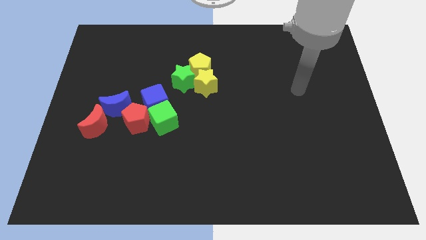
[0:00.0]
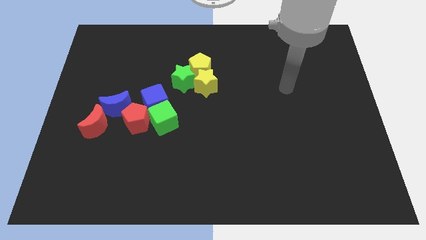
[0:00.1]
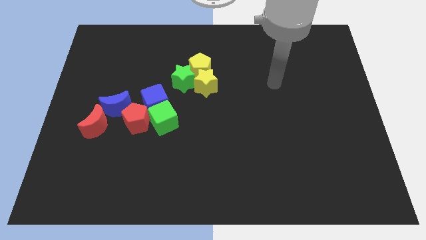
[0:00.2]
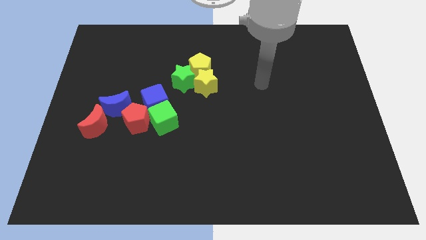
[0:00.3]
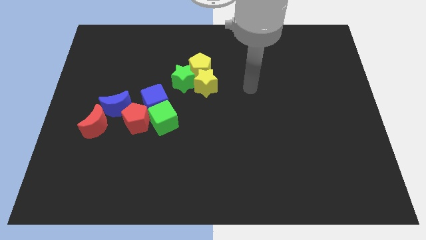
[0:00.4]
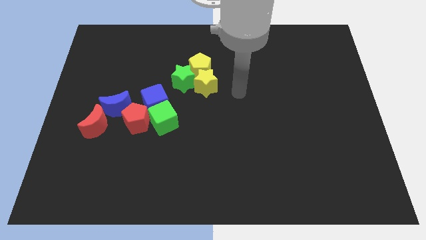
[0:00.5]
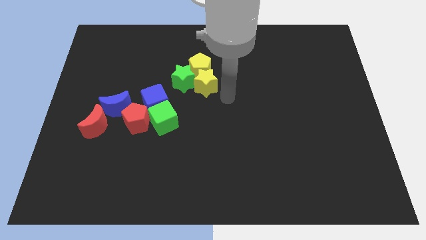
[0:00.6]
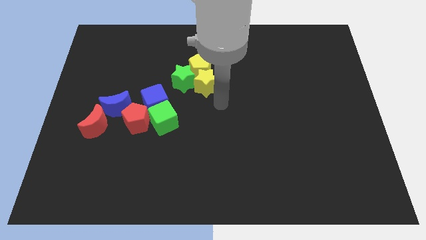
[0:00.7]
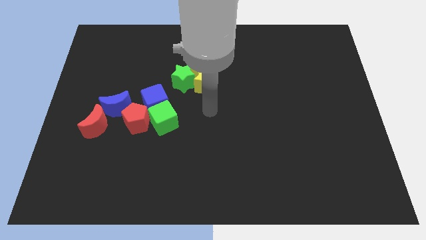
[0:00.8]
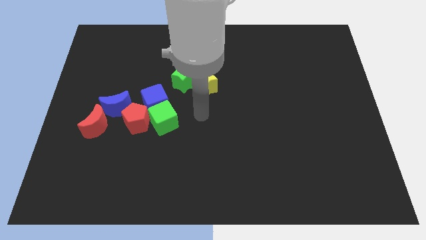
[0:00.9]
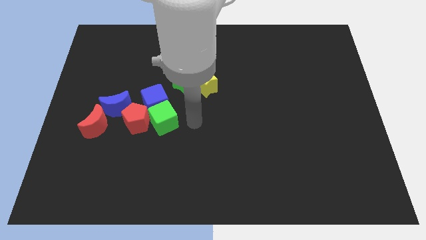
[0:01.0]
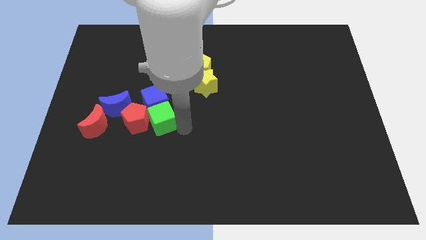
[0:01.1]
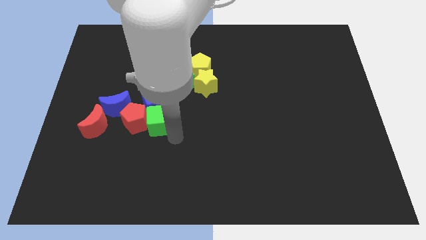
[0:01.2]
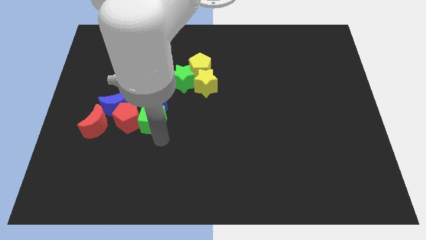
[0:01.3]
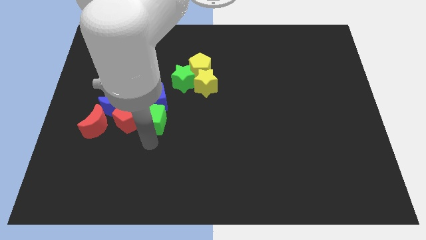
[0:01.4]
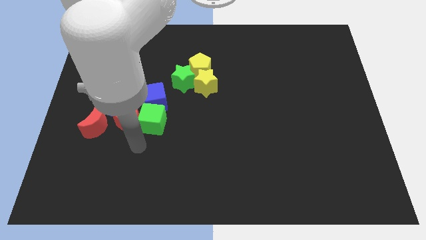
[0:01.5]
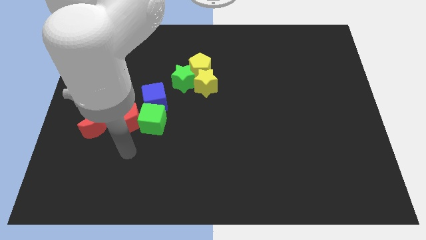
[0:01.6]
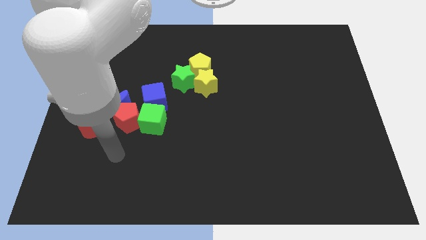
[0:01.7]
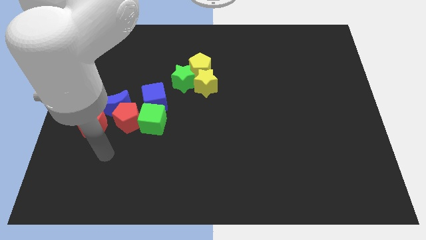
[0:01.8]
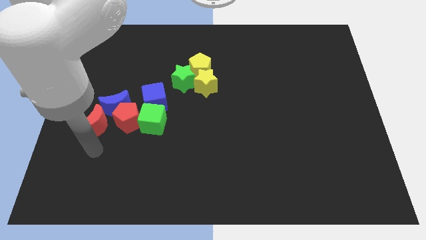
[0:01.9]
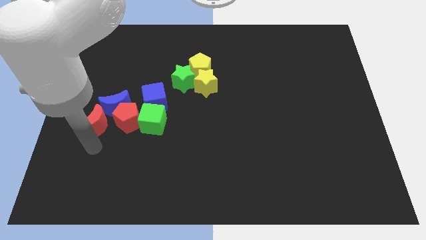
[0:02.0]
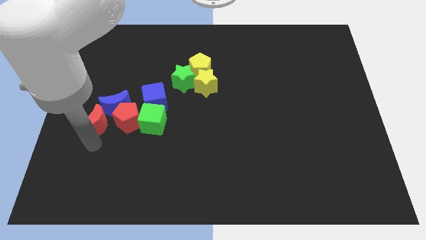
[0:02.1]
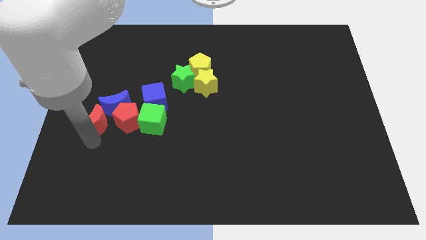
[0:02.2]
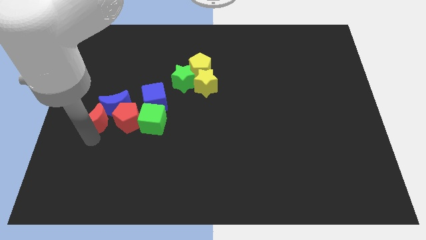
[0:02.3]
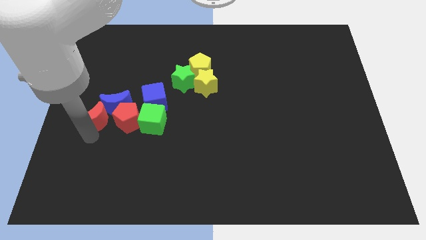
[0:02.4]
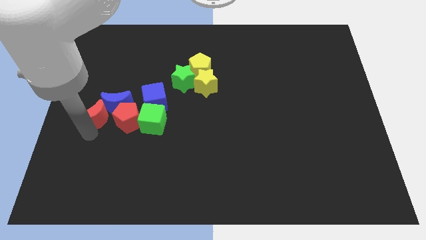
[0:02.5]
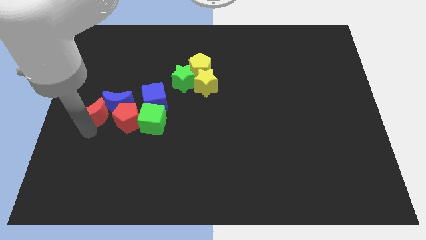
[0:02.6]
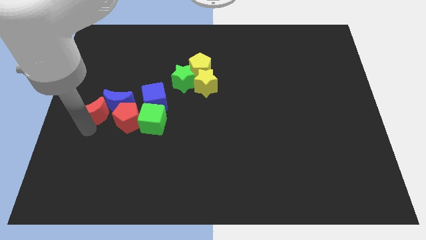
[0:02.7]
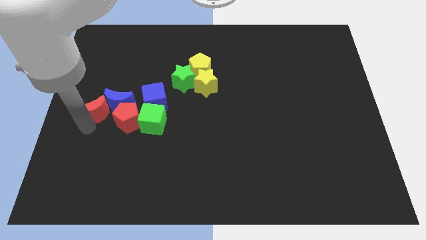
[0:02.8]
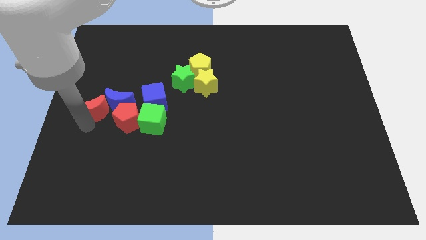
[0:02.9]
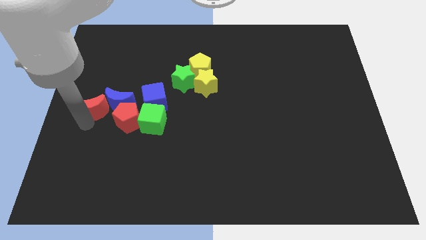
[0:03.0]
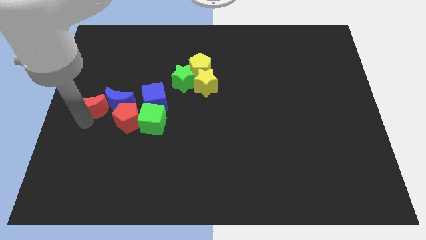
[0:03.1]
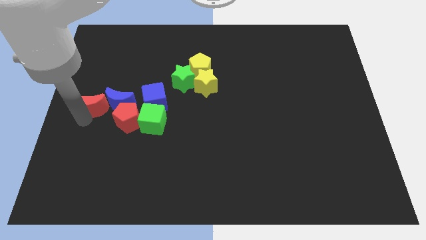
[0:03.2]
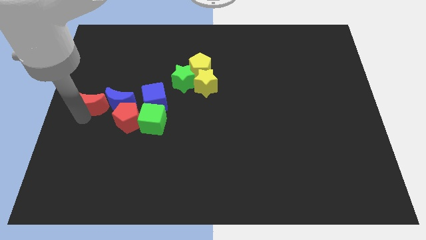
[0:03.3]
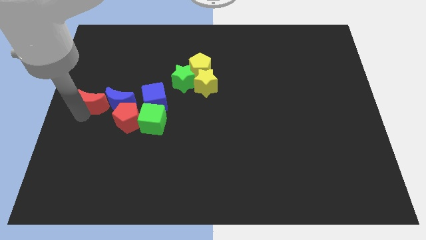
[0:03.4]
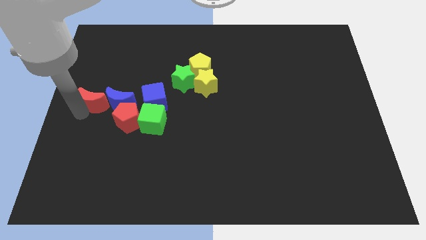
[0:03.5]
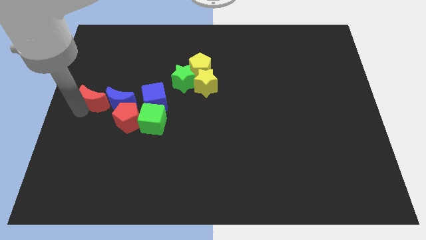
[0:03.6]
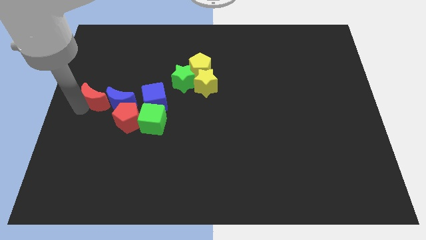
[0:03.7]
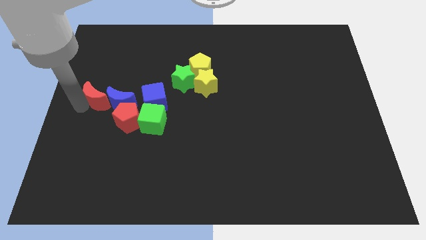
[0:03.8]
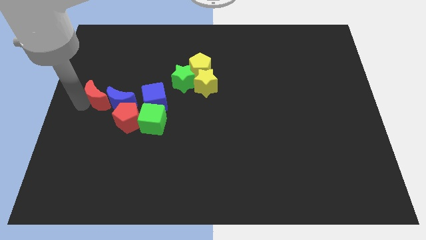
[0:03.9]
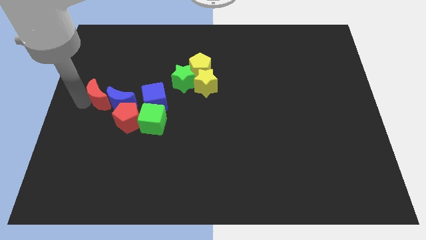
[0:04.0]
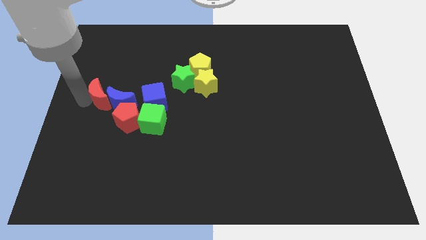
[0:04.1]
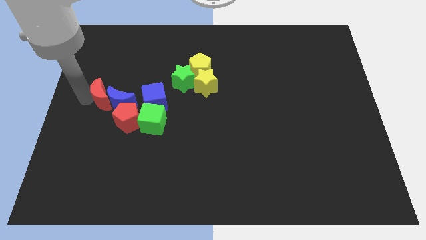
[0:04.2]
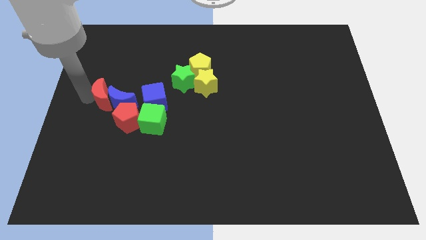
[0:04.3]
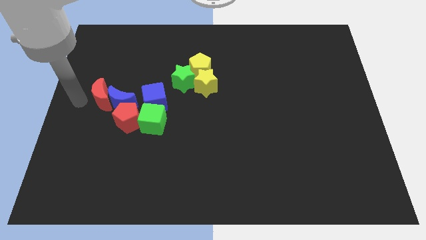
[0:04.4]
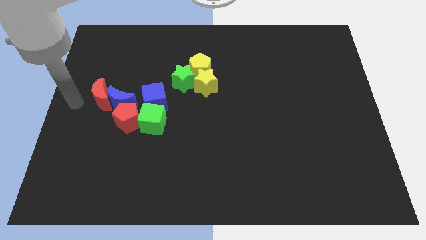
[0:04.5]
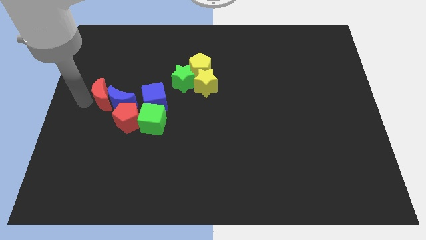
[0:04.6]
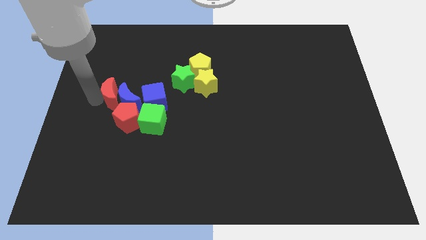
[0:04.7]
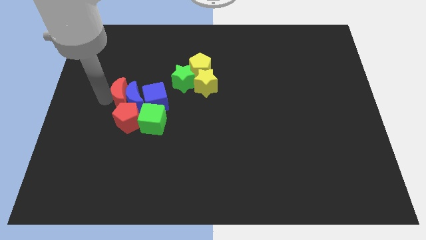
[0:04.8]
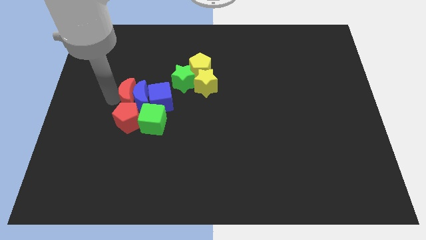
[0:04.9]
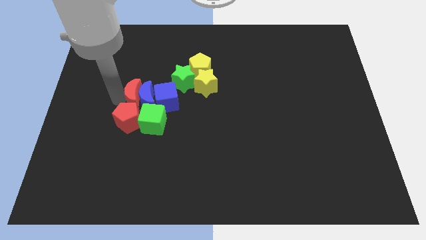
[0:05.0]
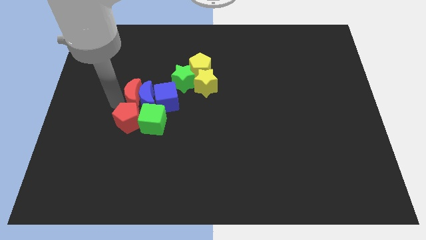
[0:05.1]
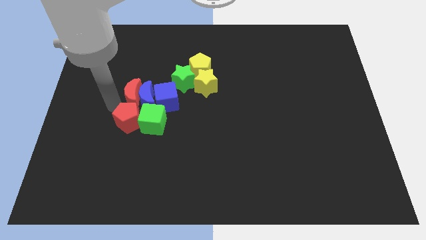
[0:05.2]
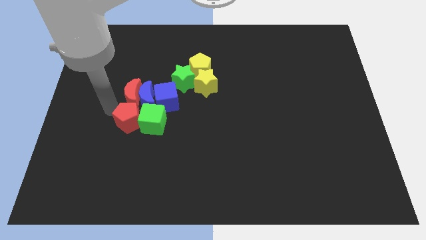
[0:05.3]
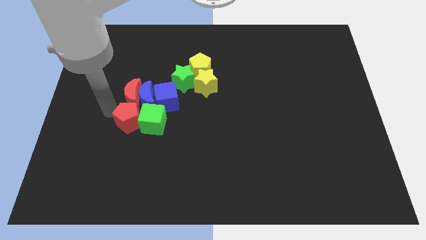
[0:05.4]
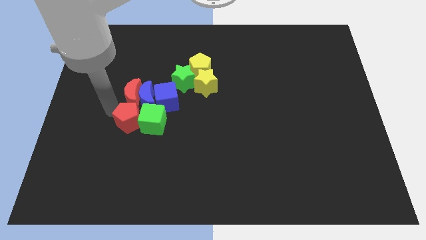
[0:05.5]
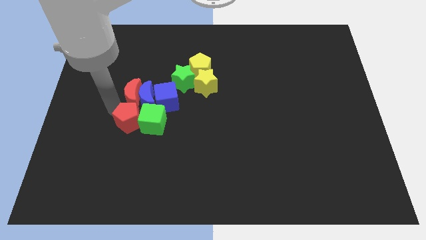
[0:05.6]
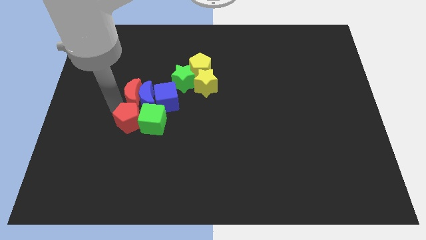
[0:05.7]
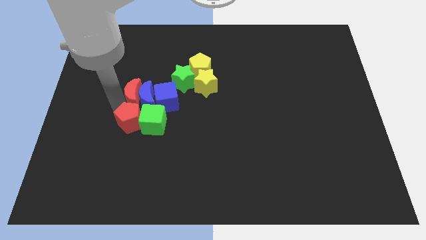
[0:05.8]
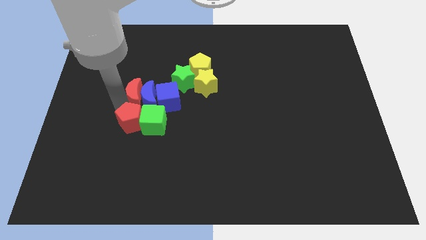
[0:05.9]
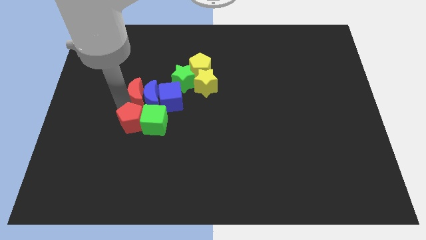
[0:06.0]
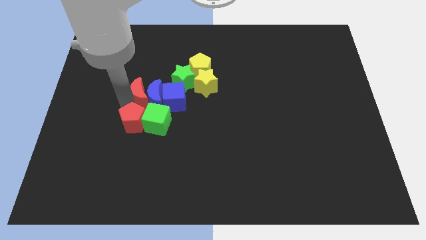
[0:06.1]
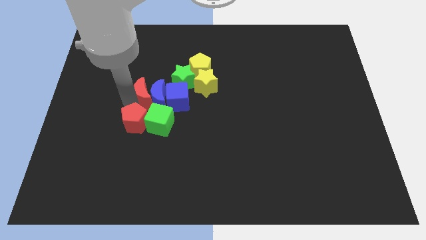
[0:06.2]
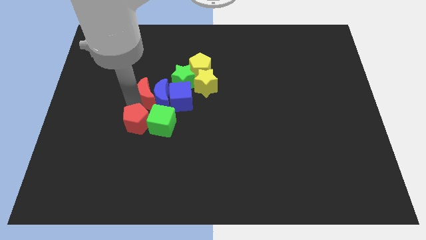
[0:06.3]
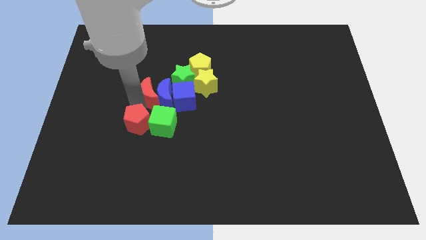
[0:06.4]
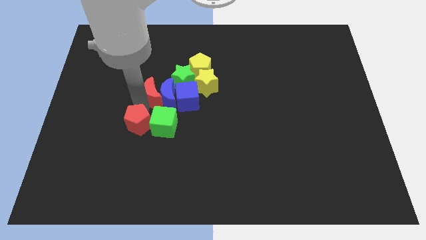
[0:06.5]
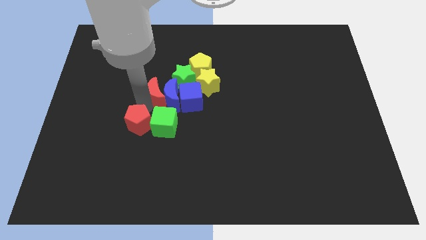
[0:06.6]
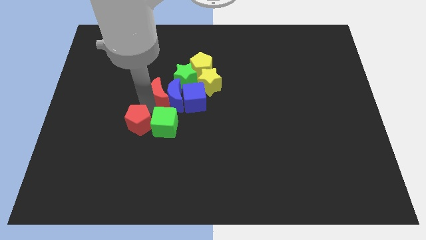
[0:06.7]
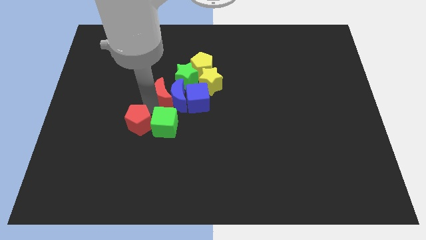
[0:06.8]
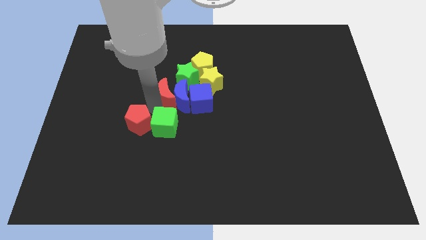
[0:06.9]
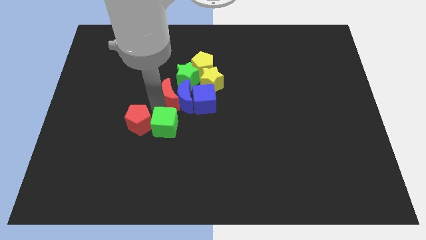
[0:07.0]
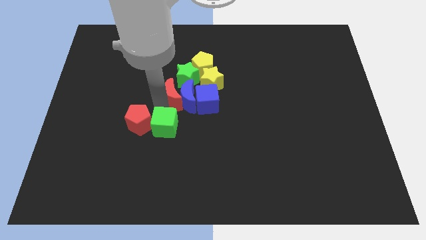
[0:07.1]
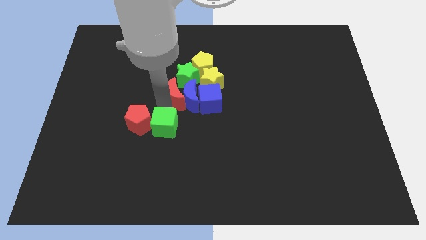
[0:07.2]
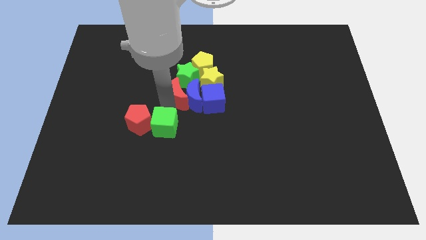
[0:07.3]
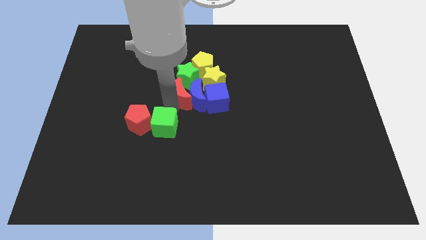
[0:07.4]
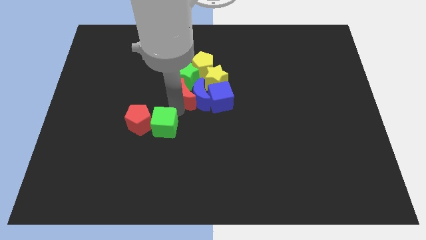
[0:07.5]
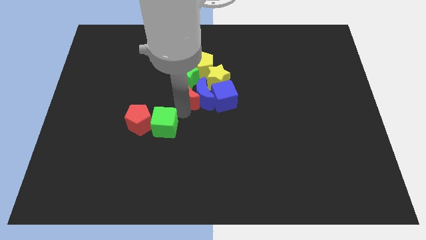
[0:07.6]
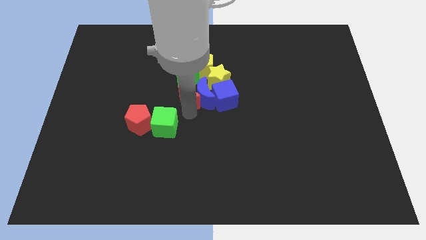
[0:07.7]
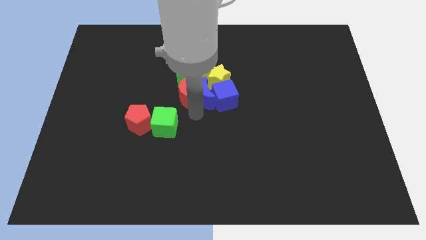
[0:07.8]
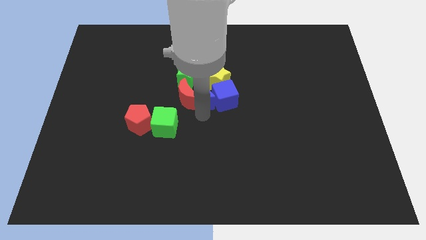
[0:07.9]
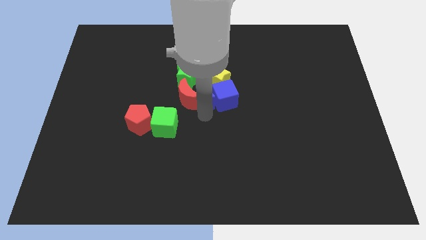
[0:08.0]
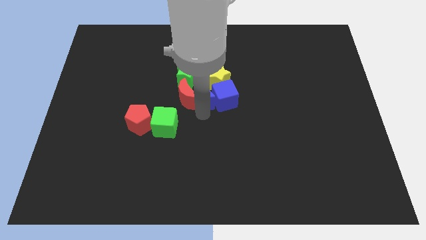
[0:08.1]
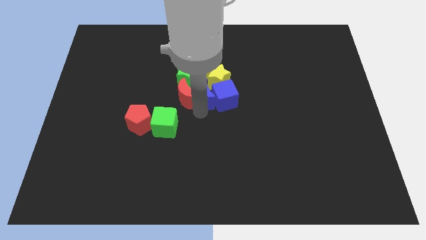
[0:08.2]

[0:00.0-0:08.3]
put the red moon close to the green star
